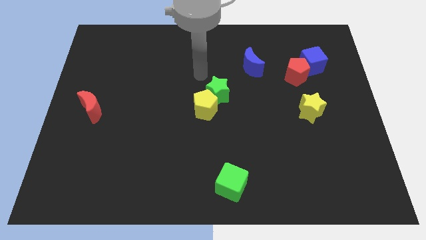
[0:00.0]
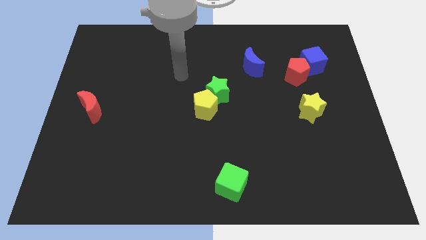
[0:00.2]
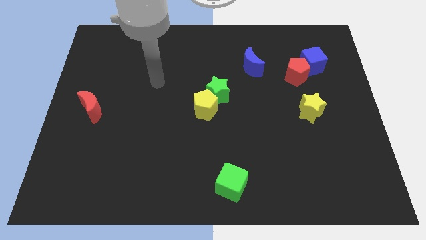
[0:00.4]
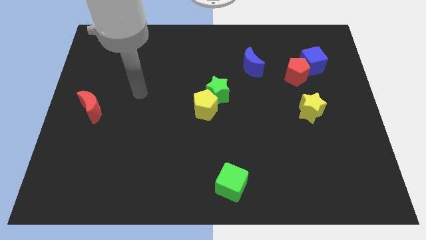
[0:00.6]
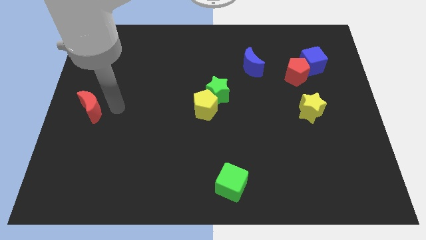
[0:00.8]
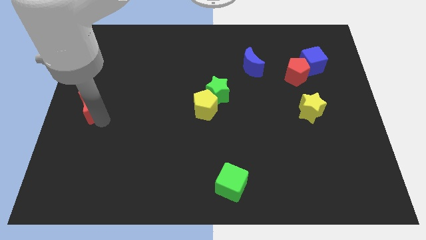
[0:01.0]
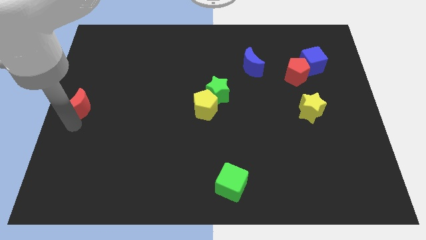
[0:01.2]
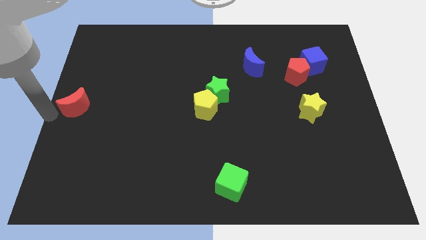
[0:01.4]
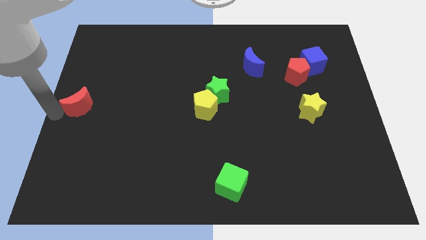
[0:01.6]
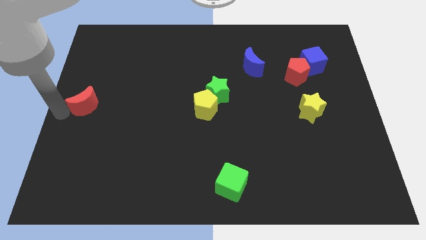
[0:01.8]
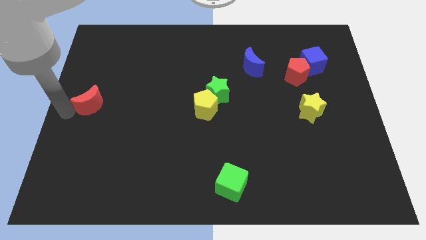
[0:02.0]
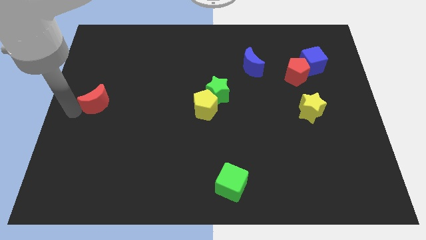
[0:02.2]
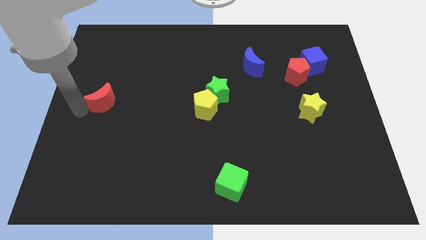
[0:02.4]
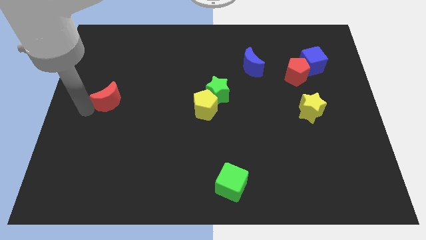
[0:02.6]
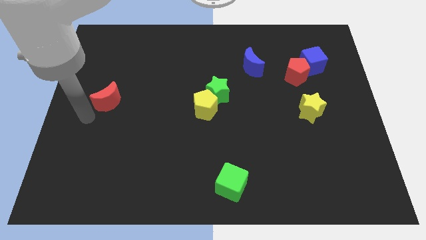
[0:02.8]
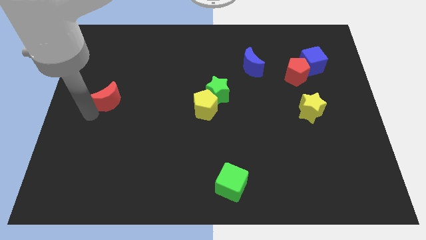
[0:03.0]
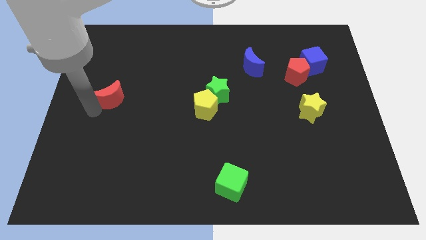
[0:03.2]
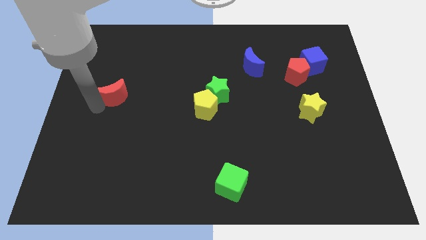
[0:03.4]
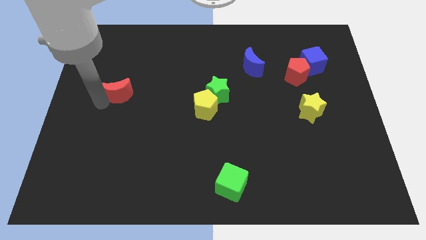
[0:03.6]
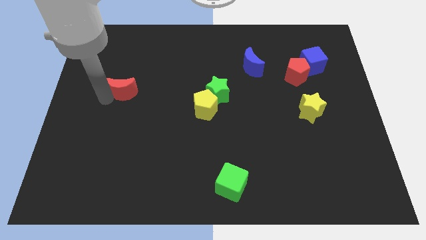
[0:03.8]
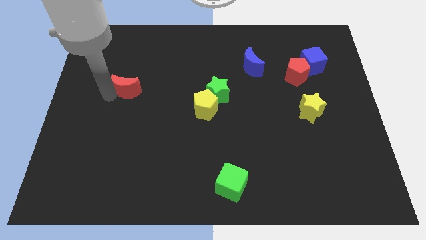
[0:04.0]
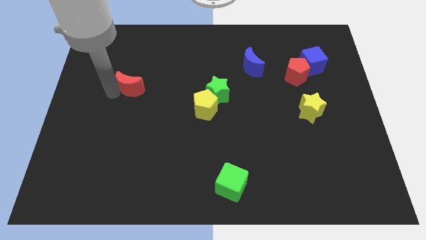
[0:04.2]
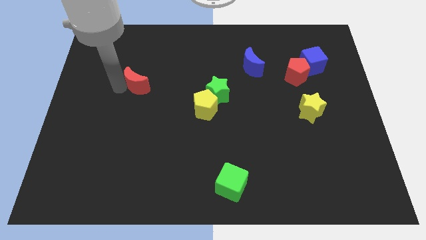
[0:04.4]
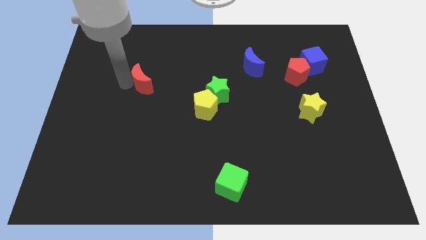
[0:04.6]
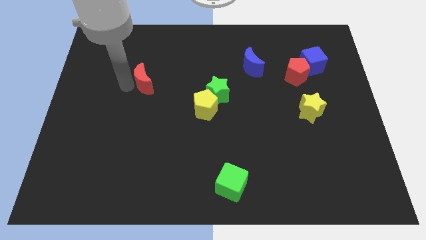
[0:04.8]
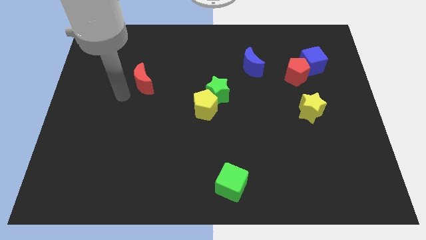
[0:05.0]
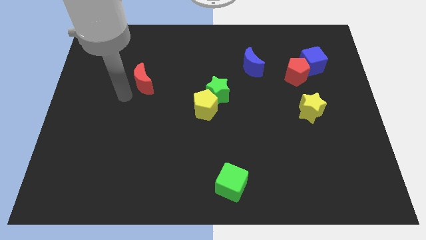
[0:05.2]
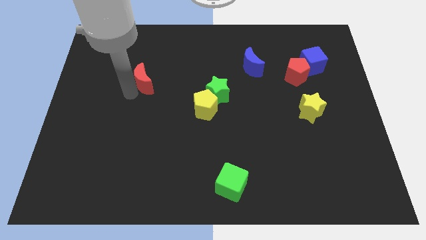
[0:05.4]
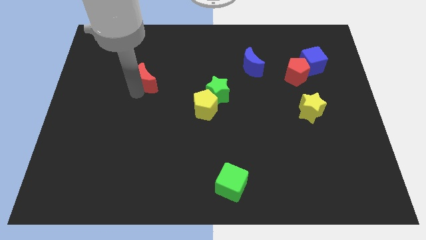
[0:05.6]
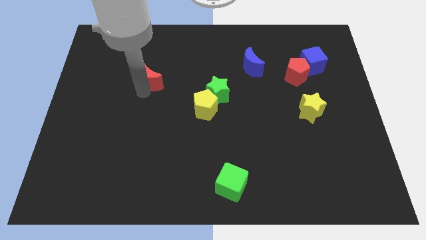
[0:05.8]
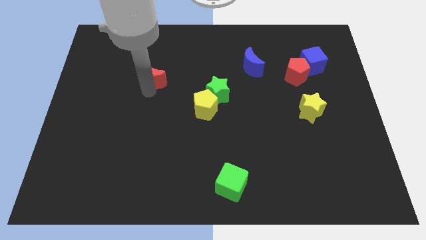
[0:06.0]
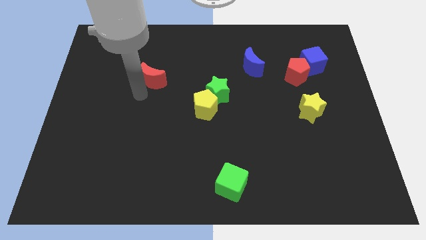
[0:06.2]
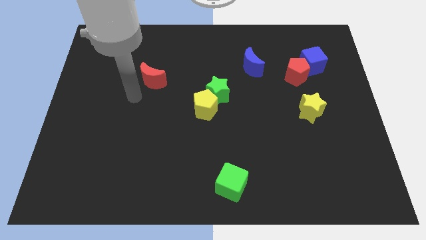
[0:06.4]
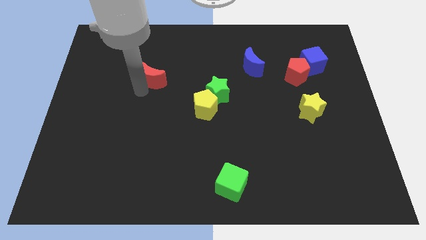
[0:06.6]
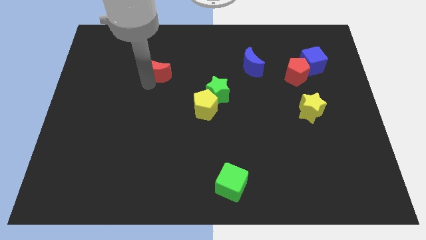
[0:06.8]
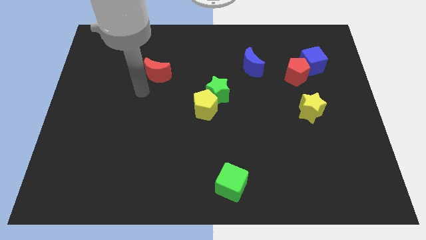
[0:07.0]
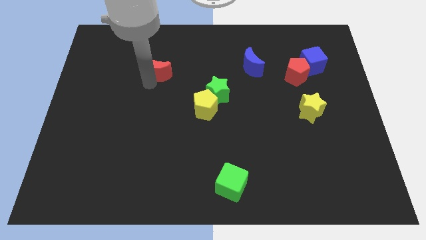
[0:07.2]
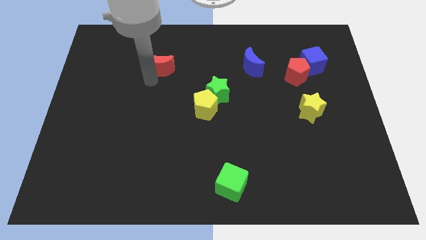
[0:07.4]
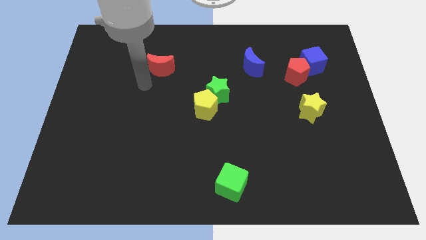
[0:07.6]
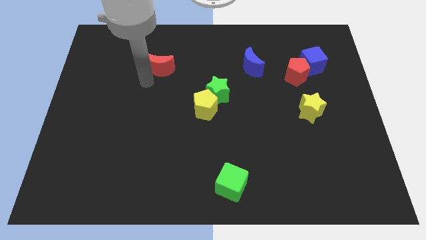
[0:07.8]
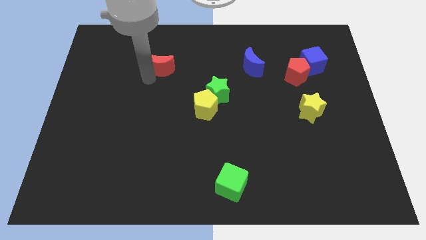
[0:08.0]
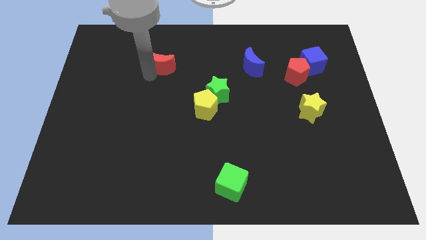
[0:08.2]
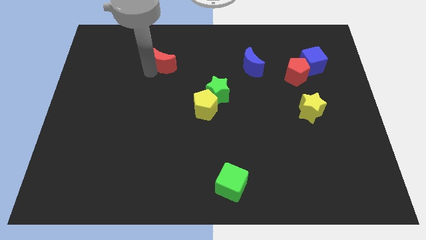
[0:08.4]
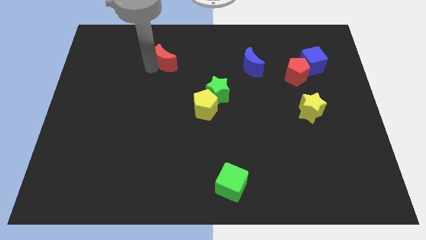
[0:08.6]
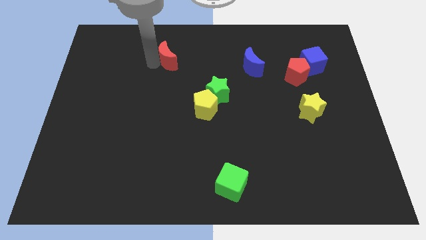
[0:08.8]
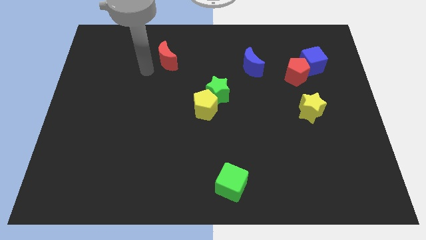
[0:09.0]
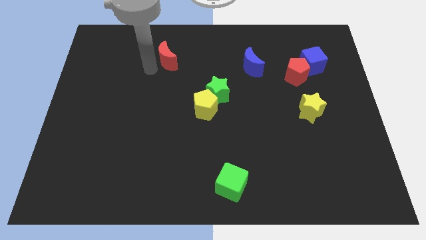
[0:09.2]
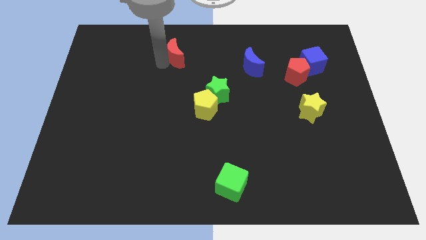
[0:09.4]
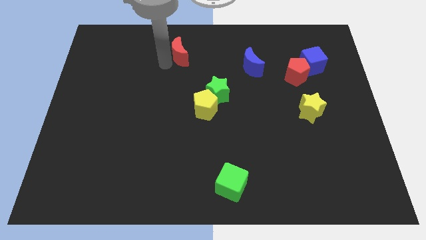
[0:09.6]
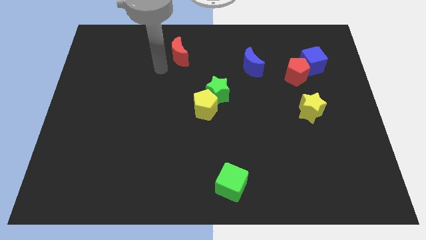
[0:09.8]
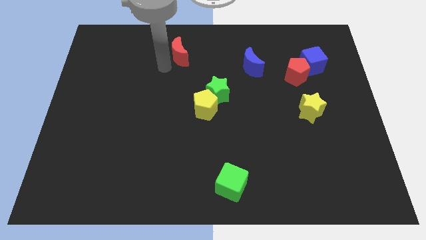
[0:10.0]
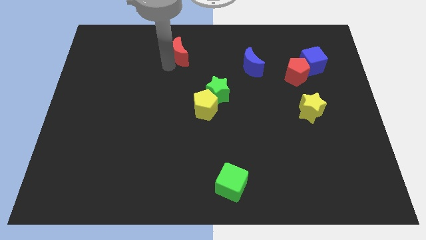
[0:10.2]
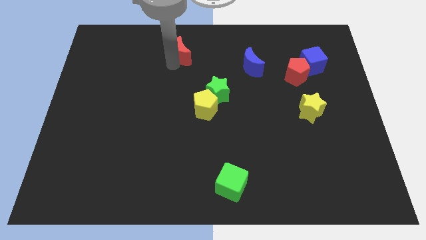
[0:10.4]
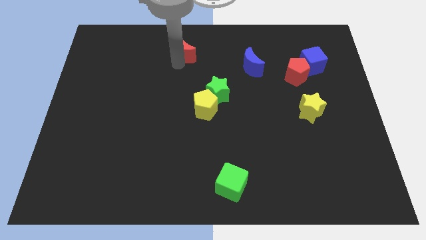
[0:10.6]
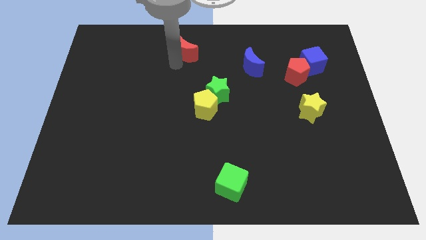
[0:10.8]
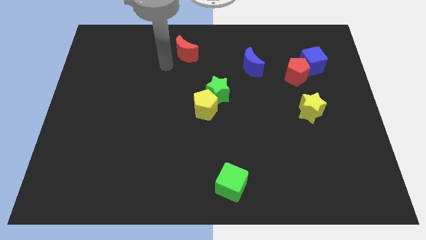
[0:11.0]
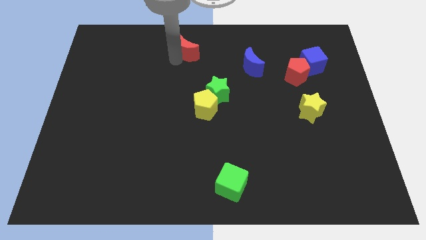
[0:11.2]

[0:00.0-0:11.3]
move the red moon to the towards your base

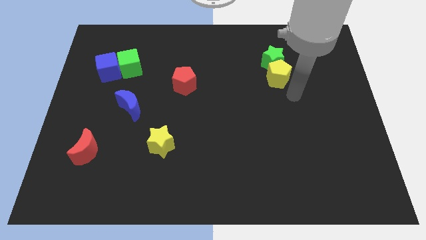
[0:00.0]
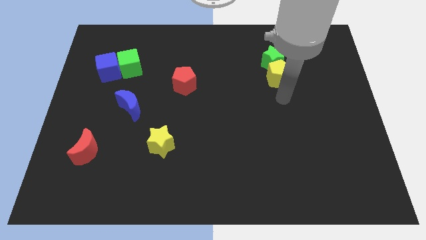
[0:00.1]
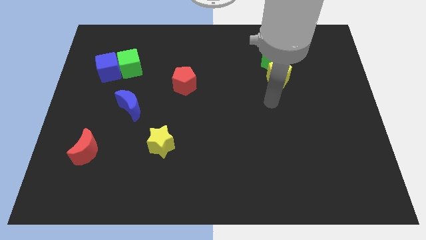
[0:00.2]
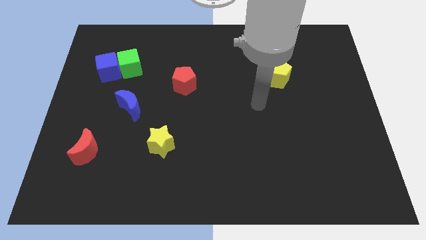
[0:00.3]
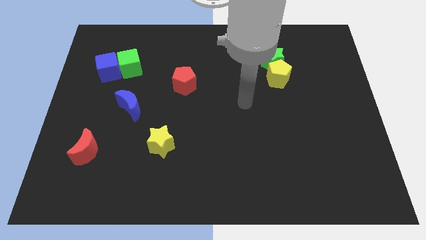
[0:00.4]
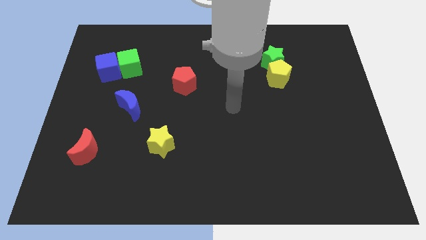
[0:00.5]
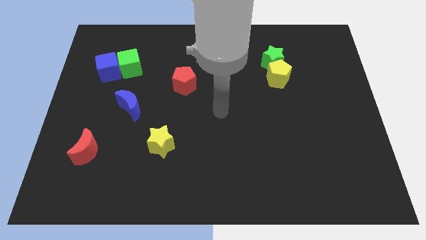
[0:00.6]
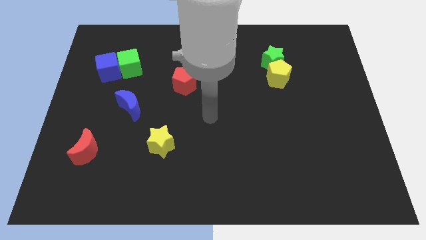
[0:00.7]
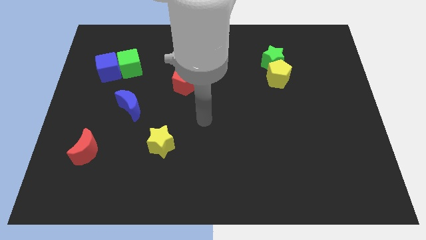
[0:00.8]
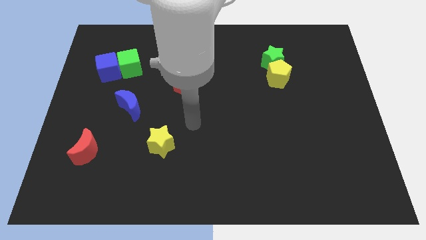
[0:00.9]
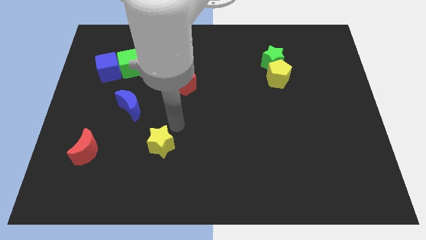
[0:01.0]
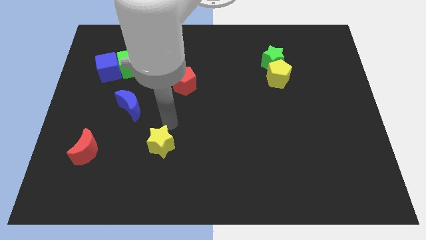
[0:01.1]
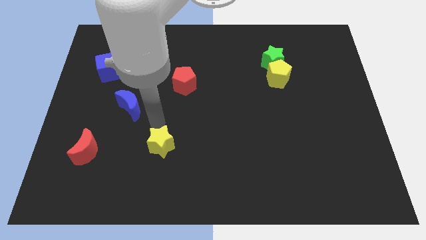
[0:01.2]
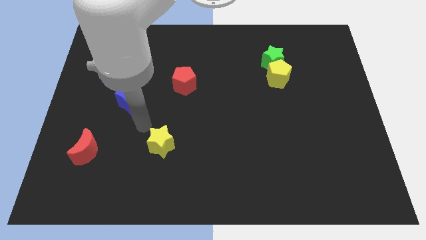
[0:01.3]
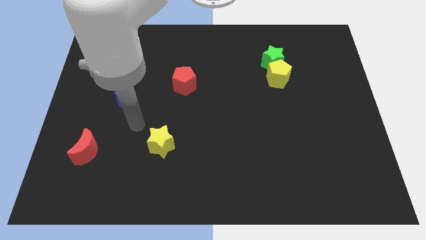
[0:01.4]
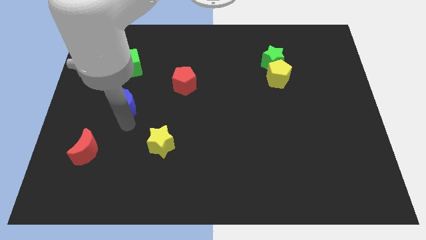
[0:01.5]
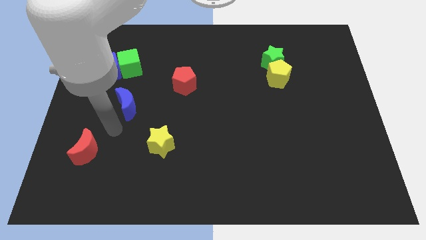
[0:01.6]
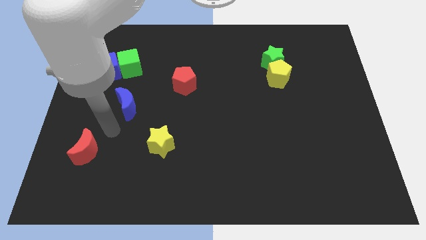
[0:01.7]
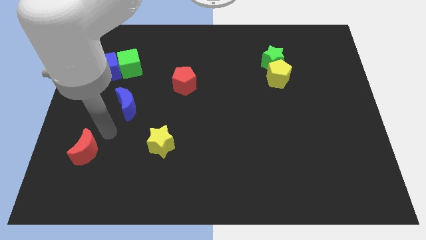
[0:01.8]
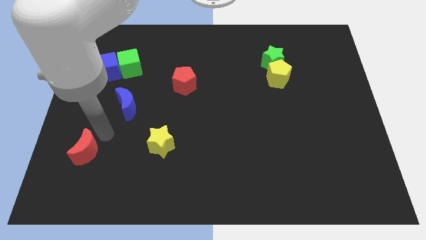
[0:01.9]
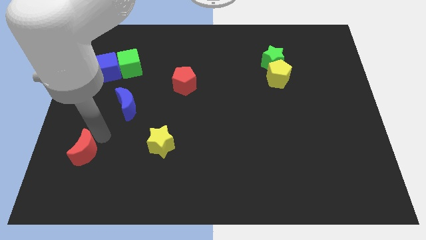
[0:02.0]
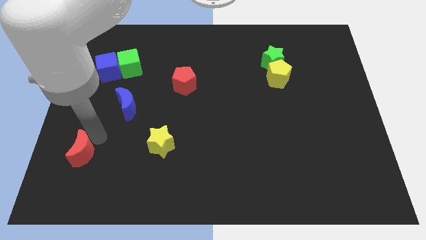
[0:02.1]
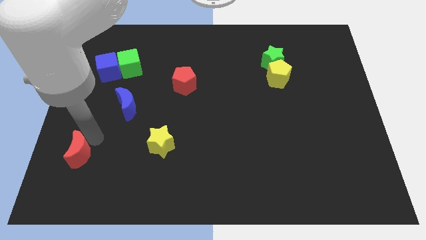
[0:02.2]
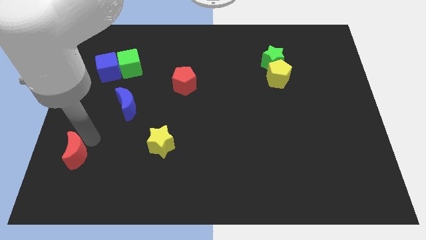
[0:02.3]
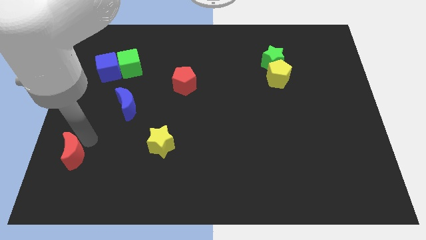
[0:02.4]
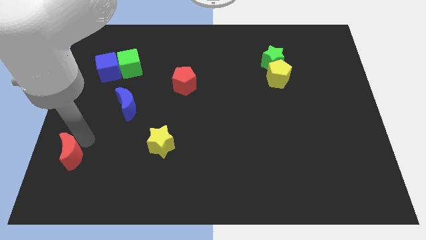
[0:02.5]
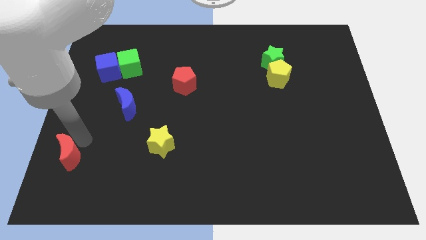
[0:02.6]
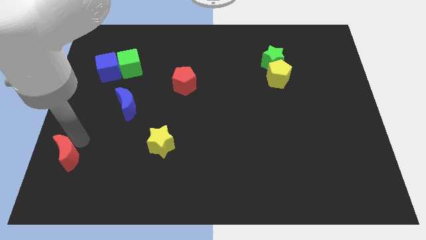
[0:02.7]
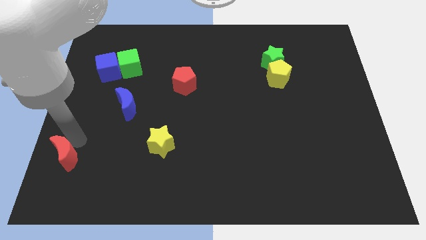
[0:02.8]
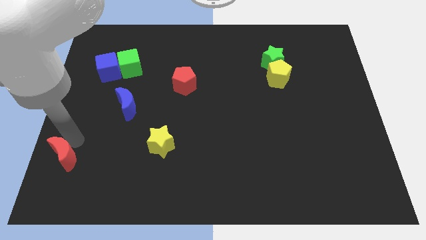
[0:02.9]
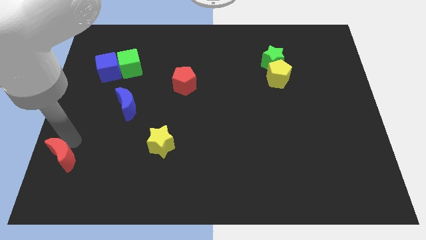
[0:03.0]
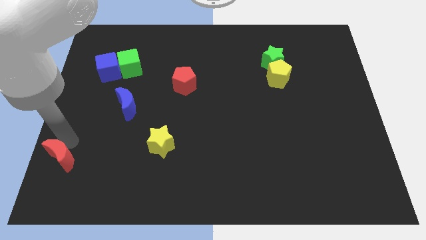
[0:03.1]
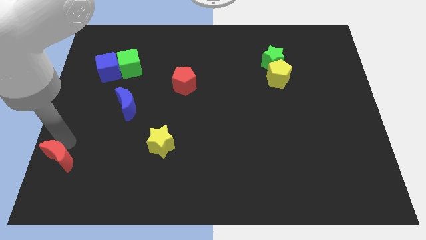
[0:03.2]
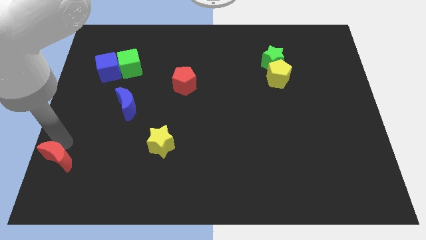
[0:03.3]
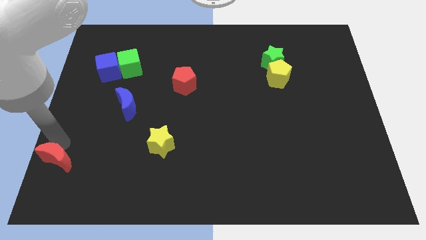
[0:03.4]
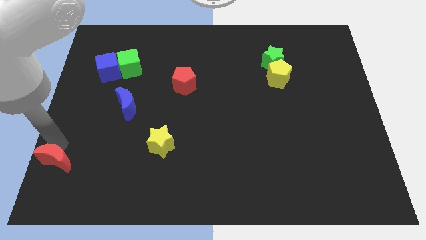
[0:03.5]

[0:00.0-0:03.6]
move the red moon to the bottom left of the board
